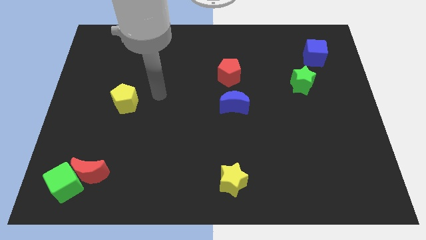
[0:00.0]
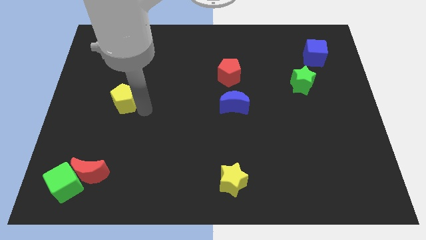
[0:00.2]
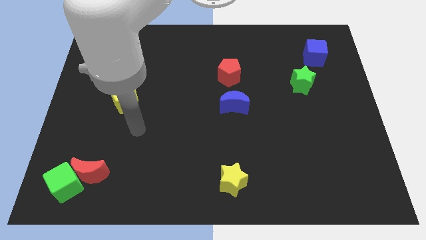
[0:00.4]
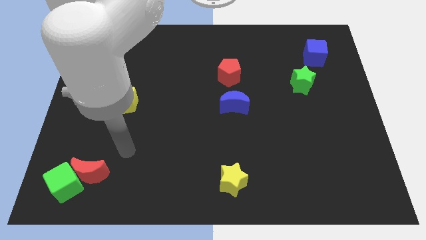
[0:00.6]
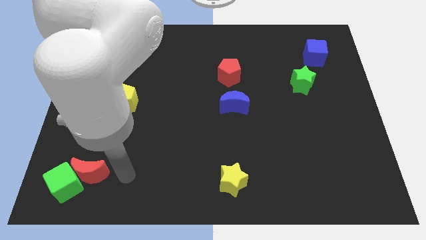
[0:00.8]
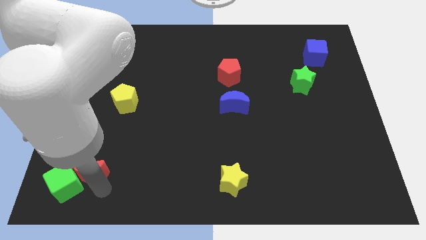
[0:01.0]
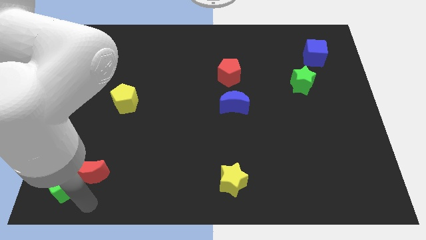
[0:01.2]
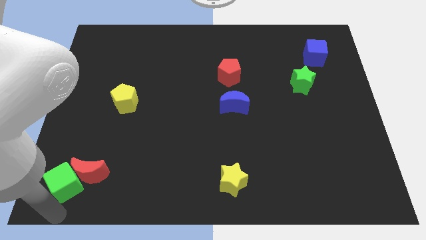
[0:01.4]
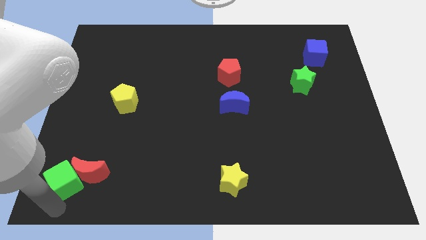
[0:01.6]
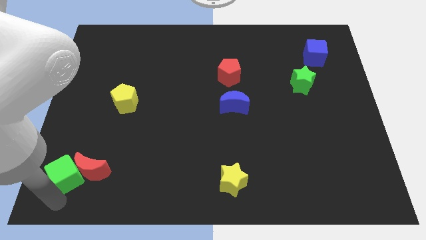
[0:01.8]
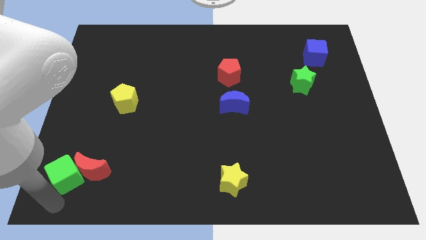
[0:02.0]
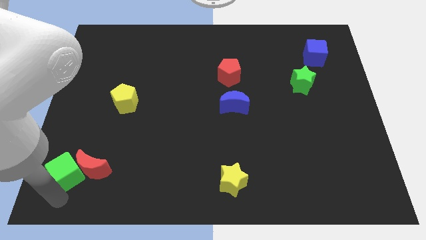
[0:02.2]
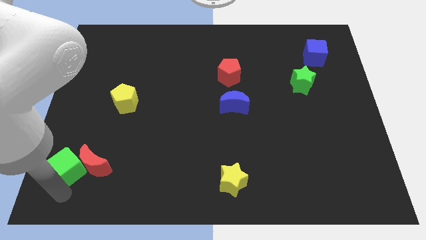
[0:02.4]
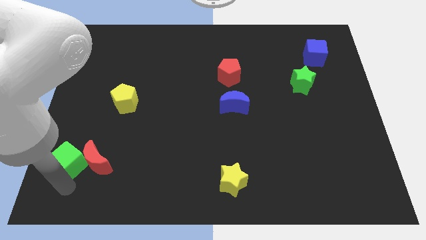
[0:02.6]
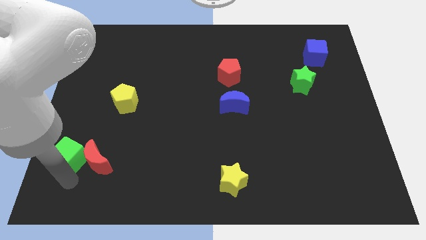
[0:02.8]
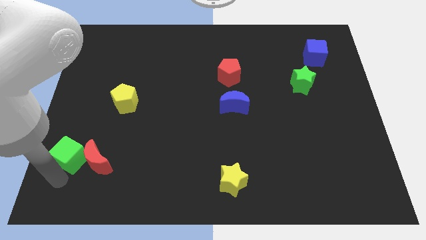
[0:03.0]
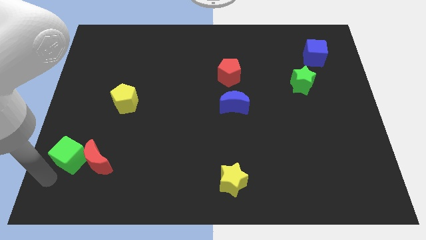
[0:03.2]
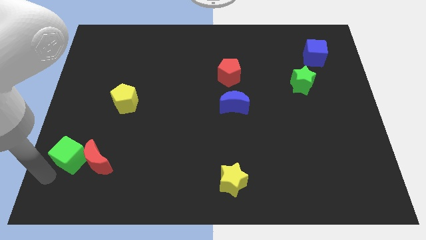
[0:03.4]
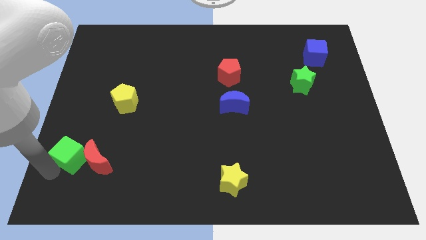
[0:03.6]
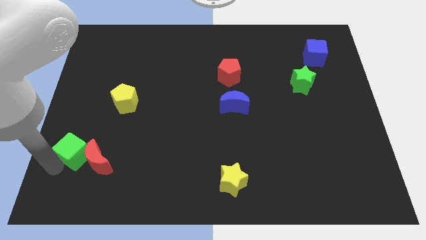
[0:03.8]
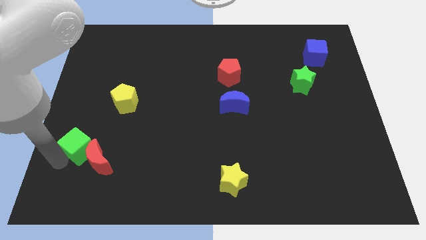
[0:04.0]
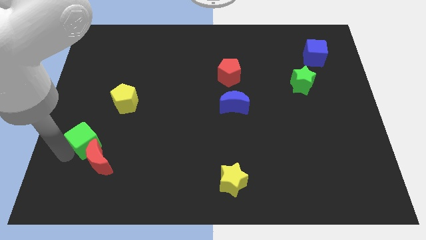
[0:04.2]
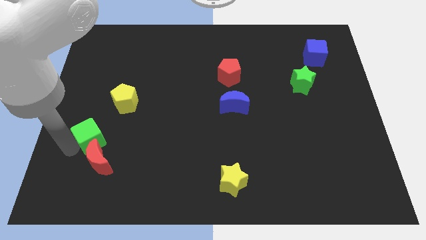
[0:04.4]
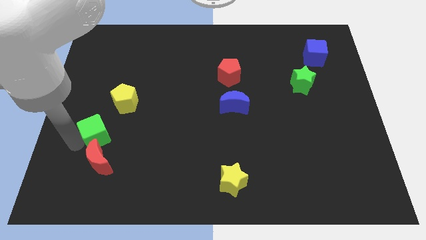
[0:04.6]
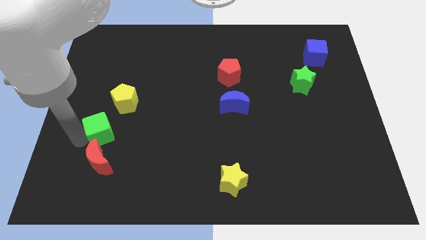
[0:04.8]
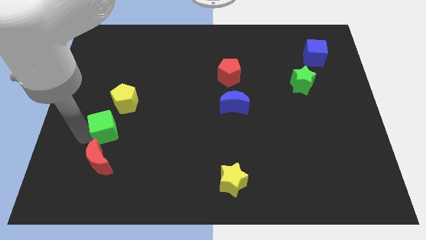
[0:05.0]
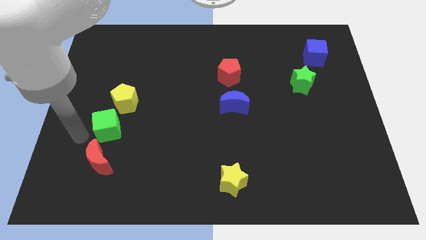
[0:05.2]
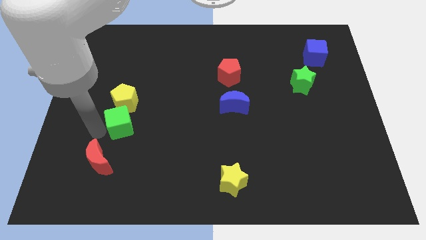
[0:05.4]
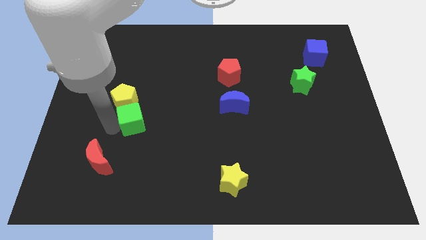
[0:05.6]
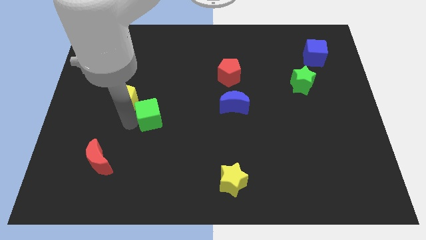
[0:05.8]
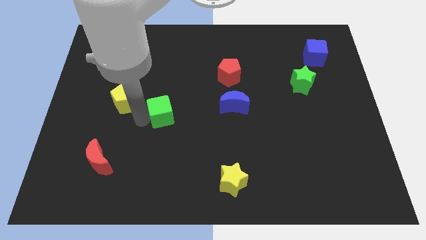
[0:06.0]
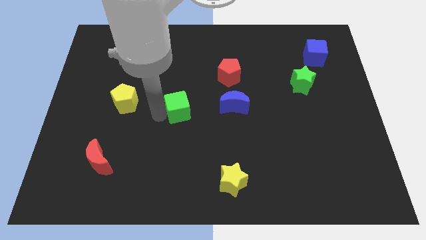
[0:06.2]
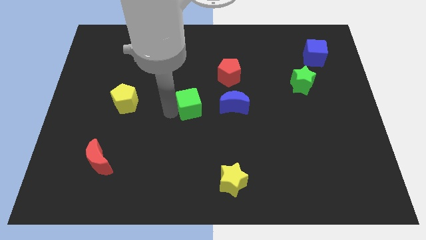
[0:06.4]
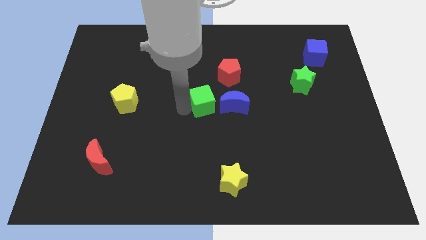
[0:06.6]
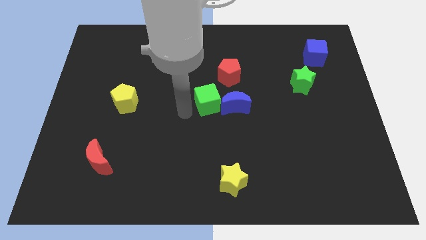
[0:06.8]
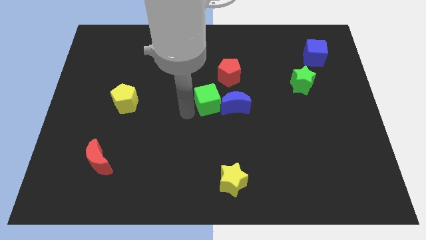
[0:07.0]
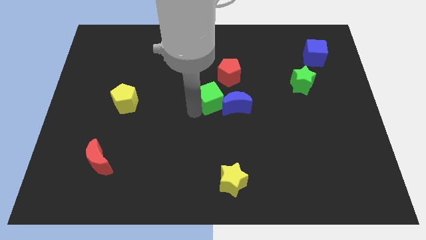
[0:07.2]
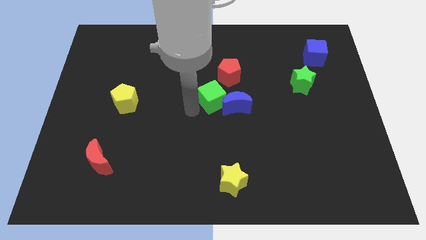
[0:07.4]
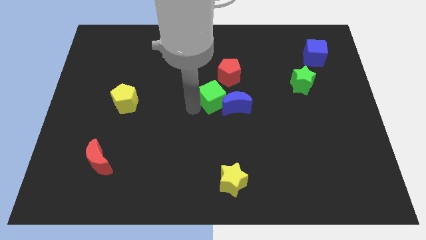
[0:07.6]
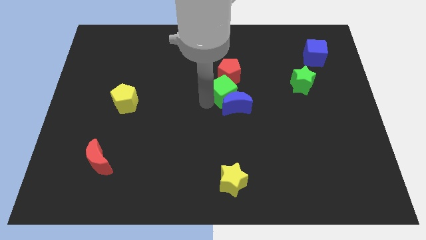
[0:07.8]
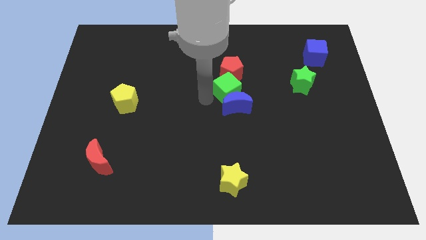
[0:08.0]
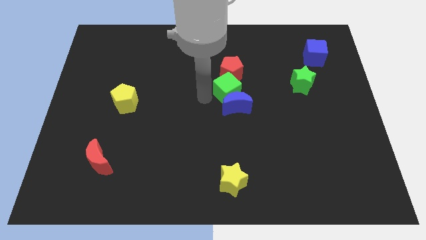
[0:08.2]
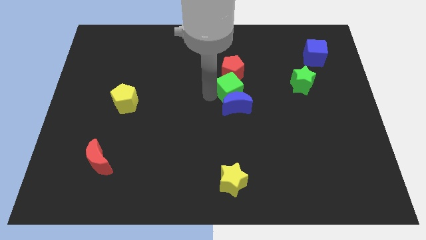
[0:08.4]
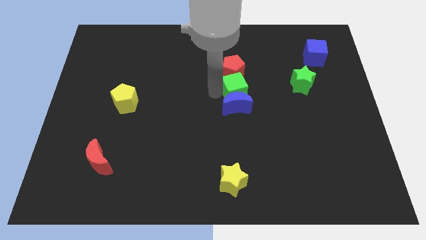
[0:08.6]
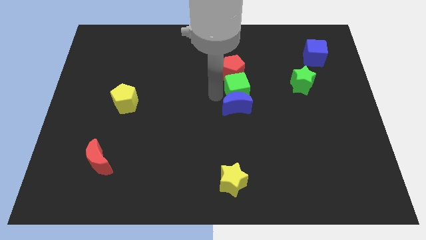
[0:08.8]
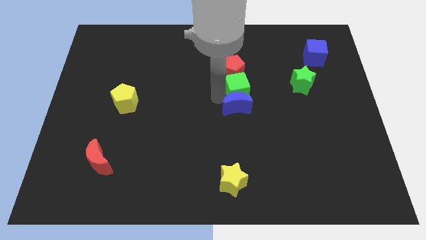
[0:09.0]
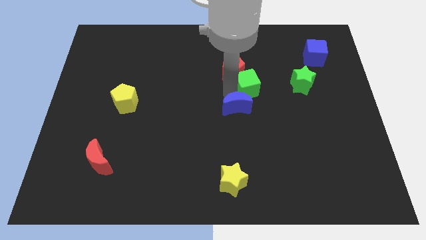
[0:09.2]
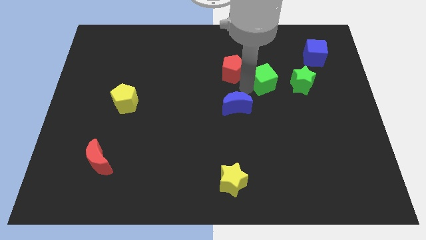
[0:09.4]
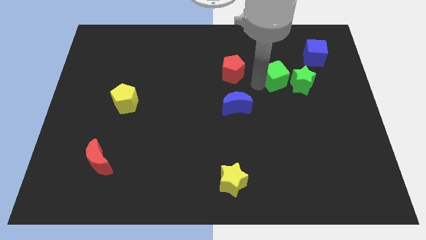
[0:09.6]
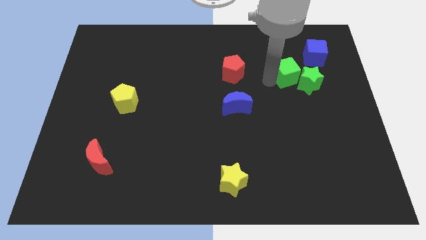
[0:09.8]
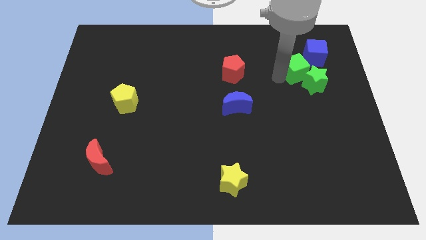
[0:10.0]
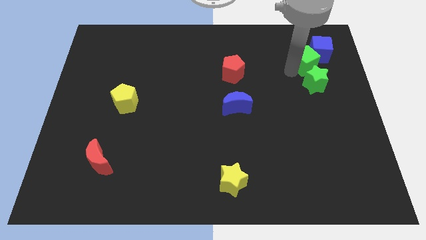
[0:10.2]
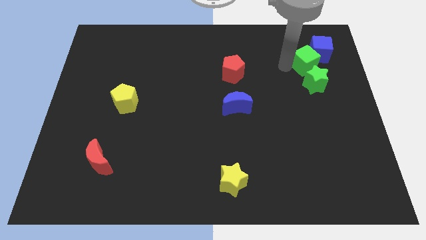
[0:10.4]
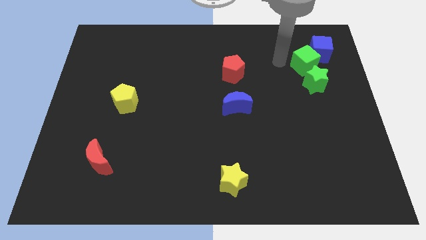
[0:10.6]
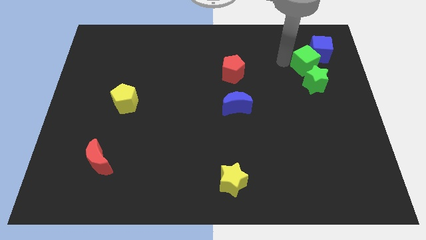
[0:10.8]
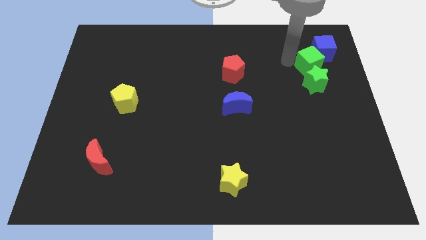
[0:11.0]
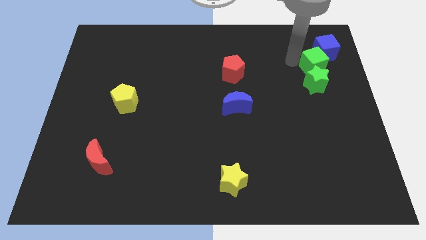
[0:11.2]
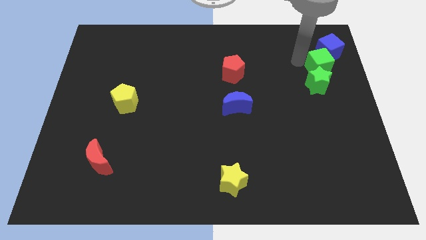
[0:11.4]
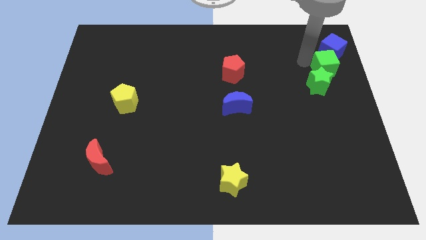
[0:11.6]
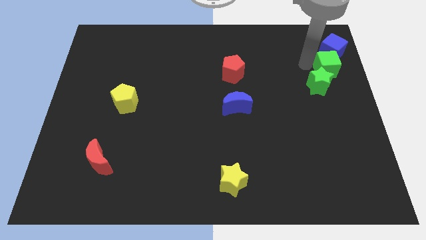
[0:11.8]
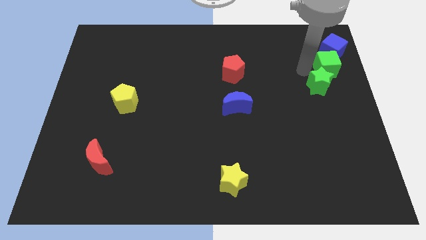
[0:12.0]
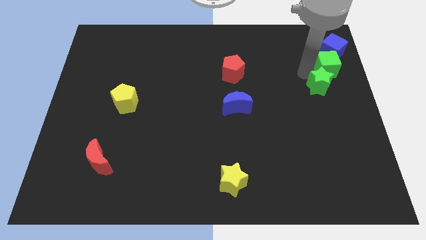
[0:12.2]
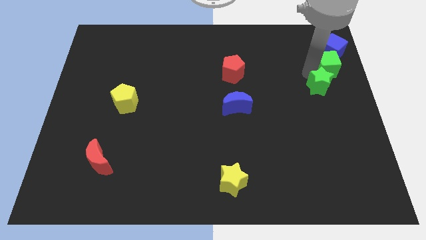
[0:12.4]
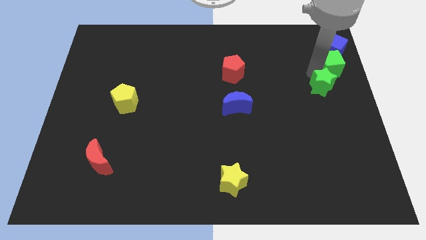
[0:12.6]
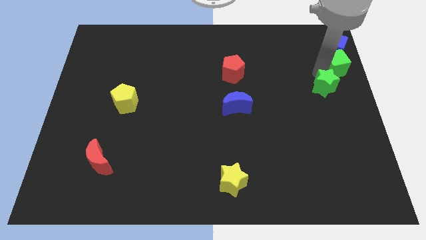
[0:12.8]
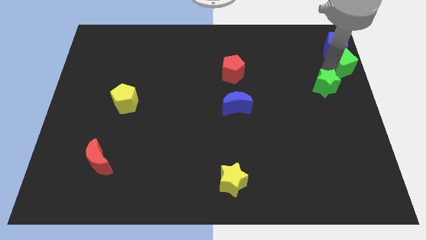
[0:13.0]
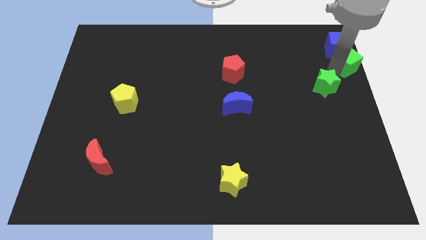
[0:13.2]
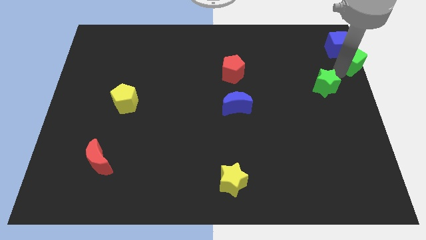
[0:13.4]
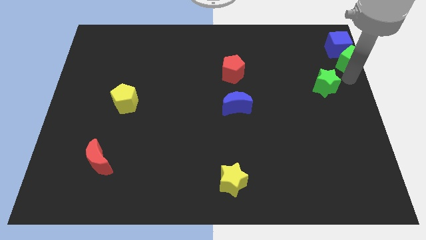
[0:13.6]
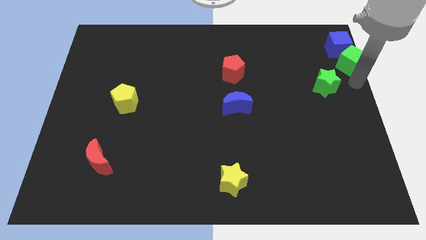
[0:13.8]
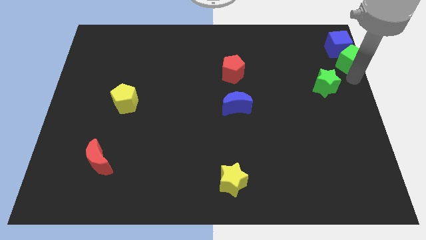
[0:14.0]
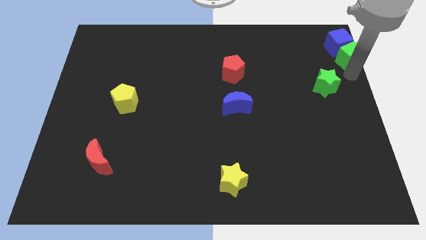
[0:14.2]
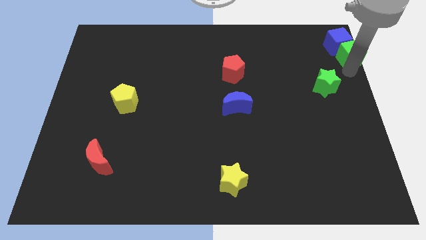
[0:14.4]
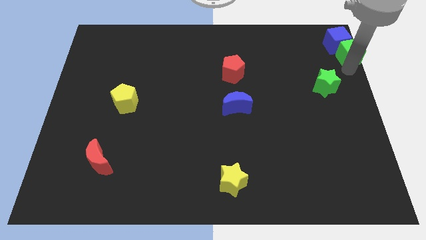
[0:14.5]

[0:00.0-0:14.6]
move the green cube to the top right
